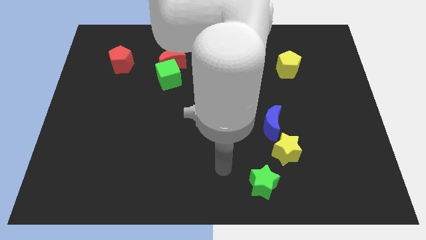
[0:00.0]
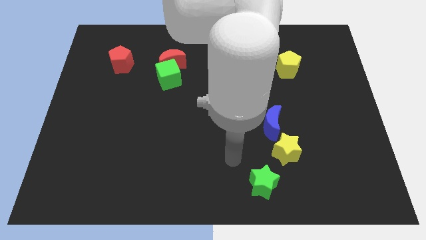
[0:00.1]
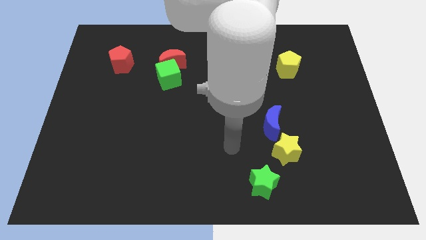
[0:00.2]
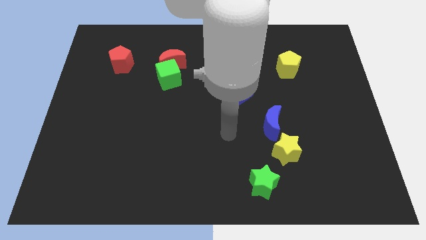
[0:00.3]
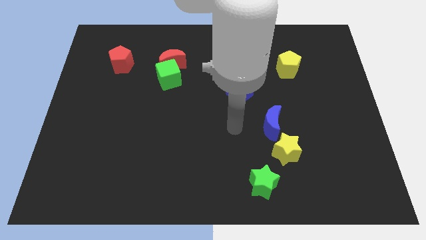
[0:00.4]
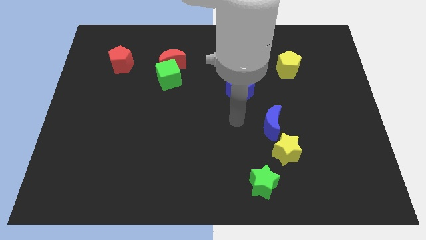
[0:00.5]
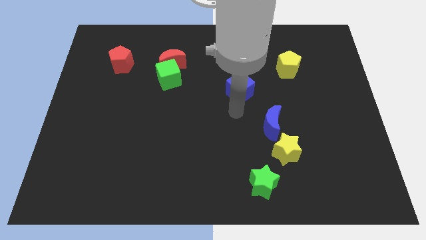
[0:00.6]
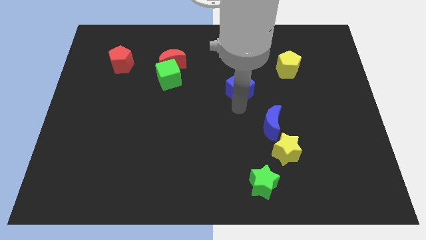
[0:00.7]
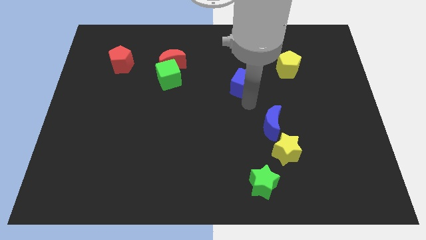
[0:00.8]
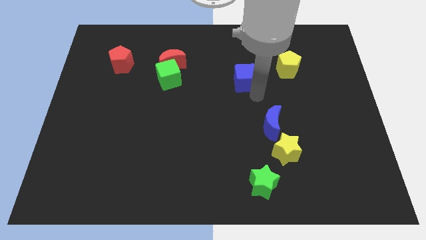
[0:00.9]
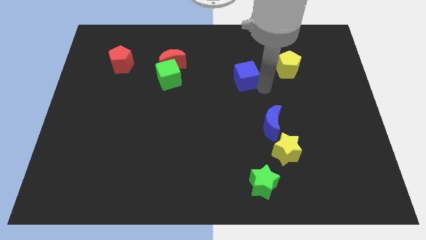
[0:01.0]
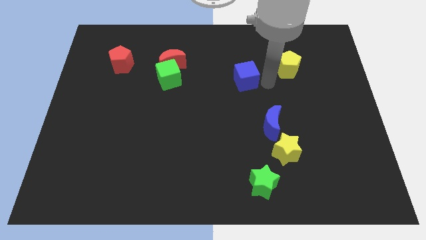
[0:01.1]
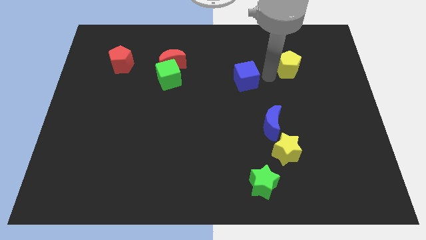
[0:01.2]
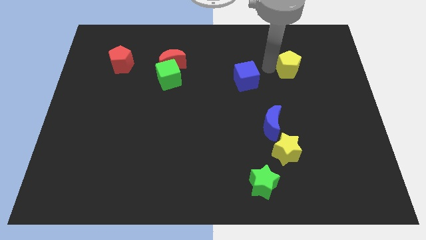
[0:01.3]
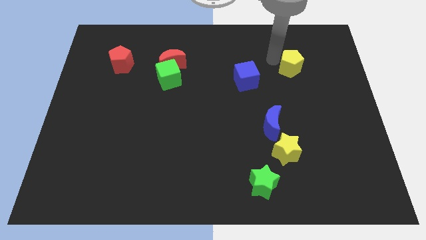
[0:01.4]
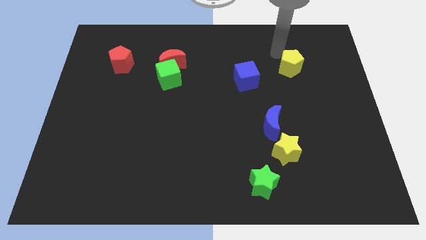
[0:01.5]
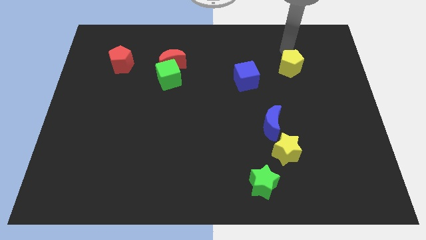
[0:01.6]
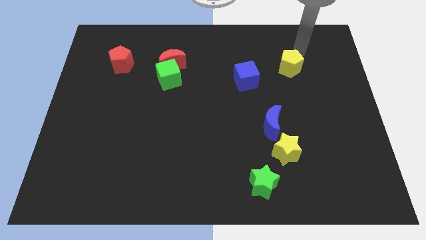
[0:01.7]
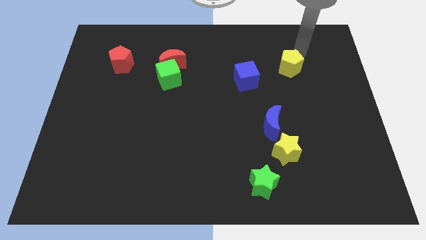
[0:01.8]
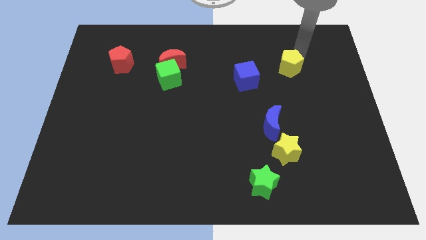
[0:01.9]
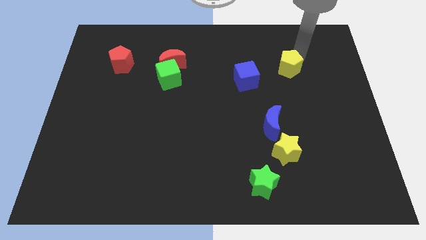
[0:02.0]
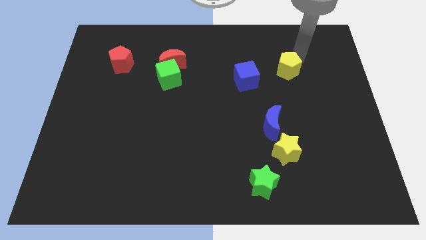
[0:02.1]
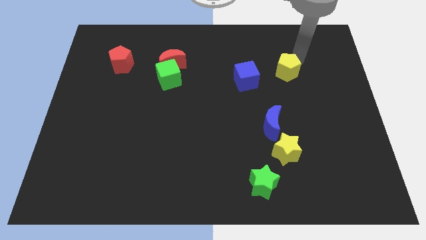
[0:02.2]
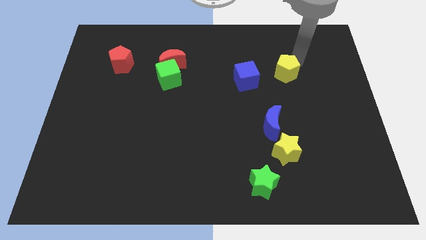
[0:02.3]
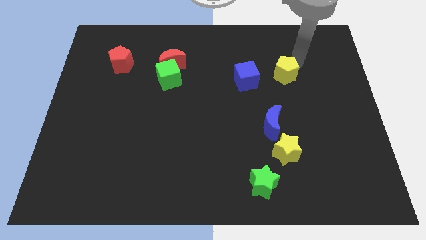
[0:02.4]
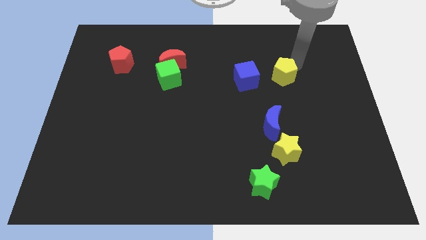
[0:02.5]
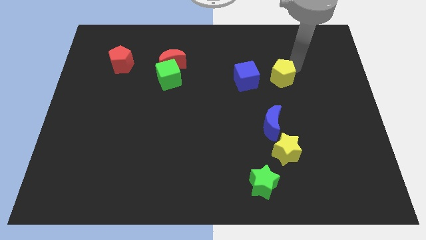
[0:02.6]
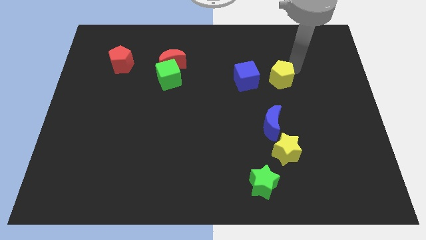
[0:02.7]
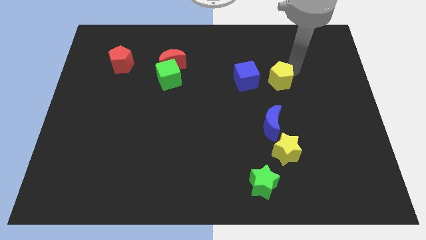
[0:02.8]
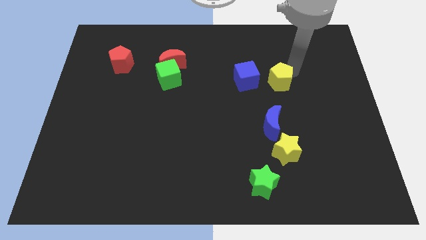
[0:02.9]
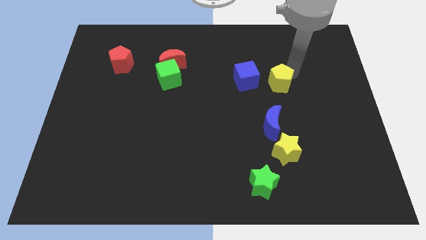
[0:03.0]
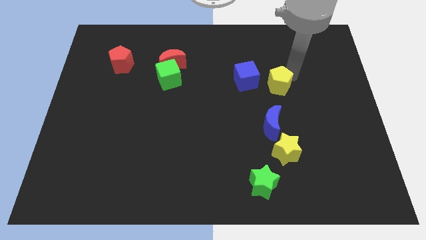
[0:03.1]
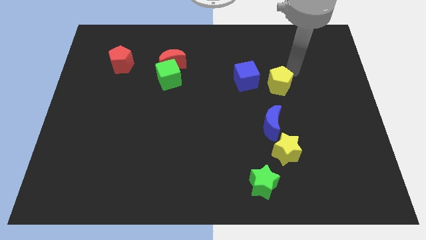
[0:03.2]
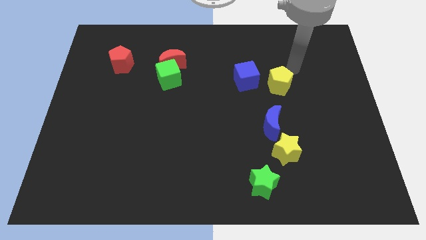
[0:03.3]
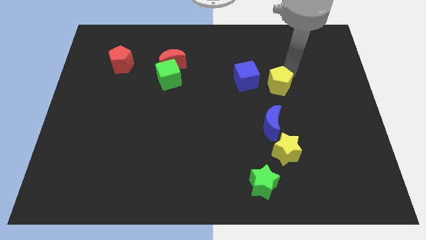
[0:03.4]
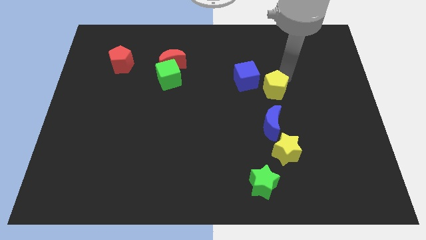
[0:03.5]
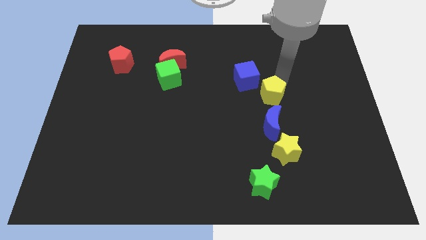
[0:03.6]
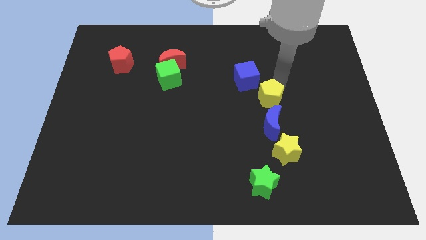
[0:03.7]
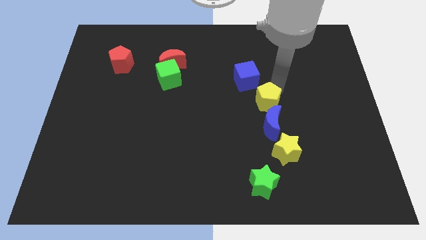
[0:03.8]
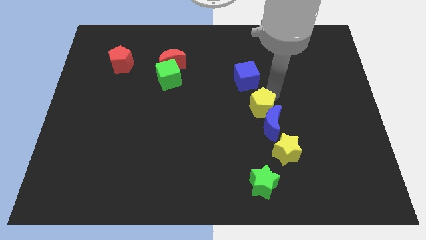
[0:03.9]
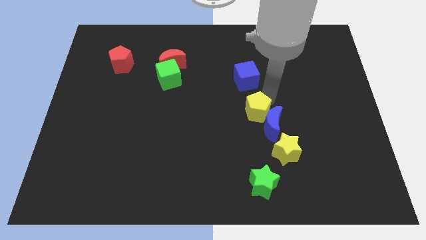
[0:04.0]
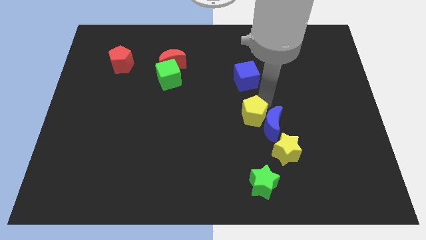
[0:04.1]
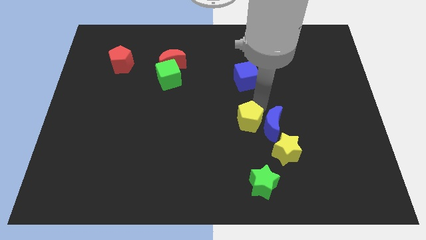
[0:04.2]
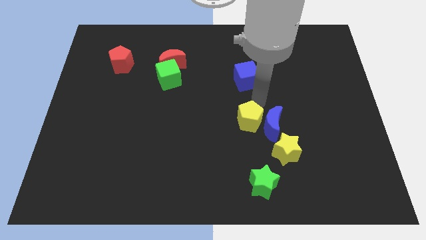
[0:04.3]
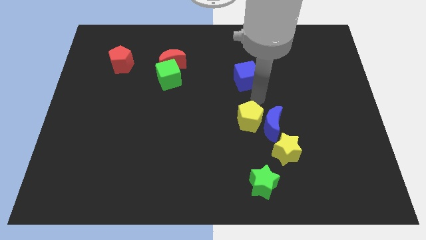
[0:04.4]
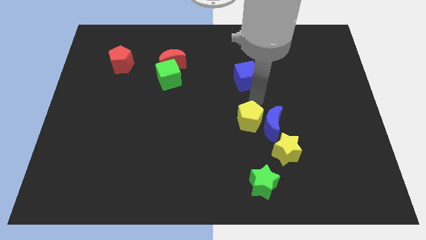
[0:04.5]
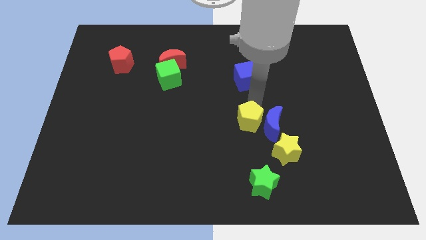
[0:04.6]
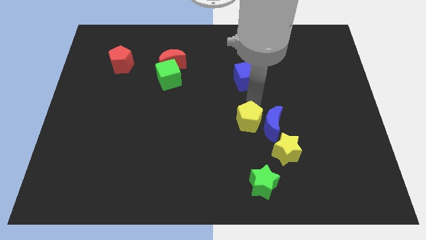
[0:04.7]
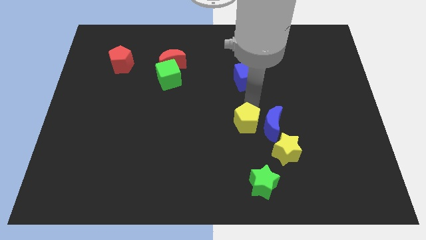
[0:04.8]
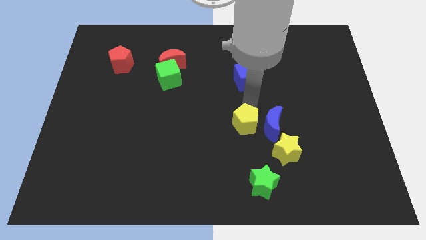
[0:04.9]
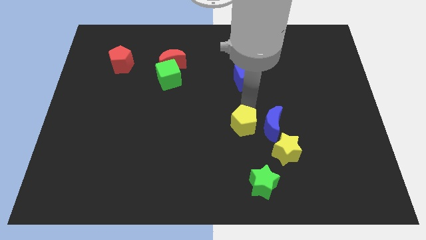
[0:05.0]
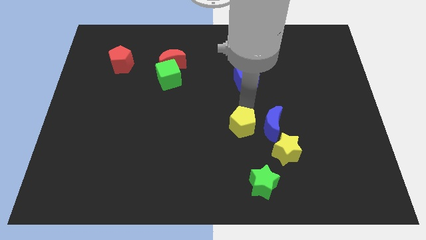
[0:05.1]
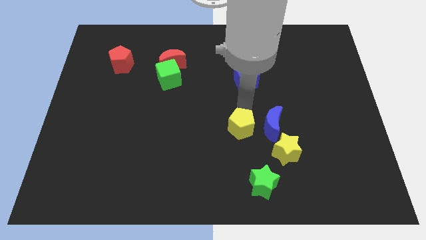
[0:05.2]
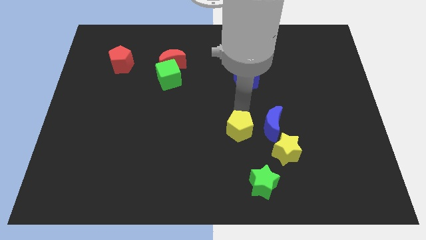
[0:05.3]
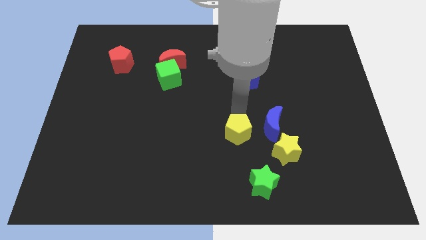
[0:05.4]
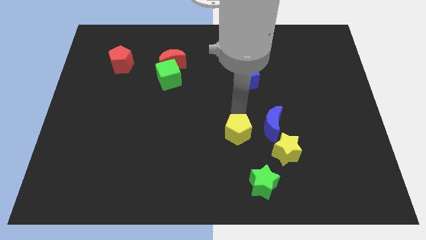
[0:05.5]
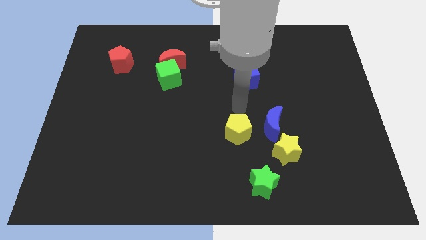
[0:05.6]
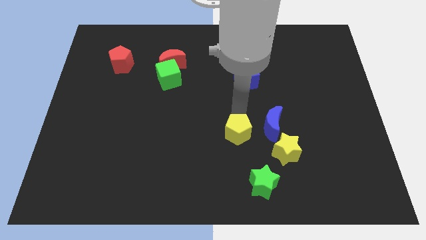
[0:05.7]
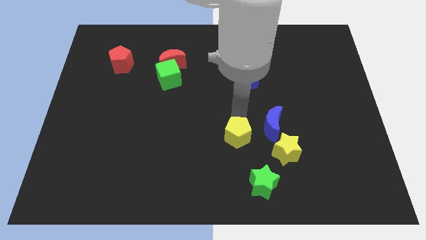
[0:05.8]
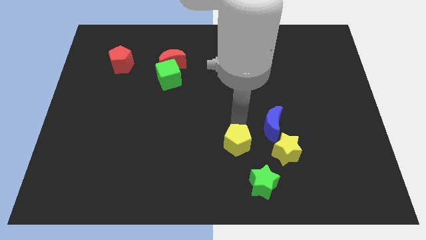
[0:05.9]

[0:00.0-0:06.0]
put the yellow pentagon diagonally up and to the left of the green star

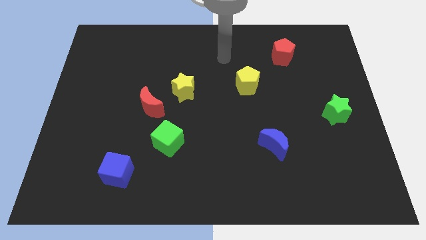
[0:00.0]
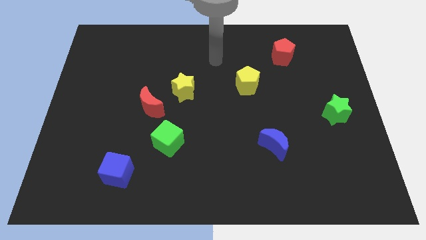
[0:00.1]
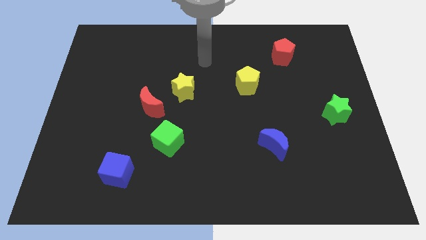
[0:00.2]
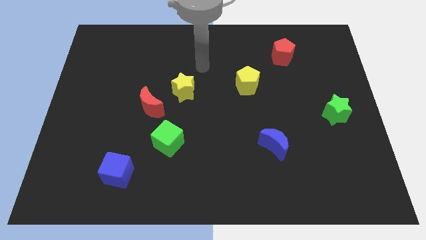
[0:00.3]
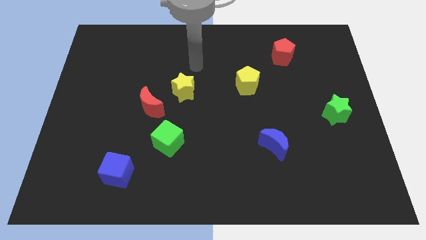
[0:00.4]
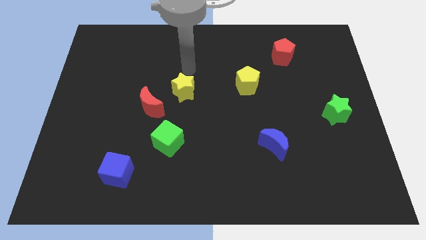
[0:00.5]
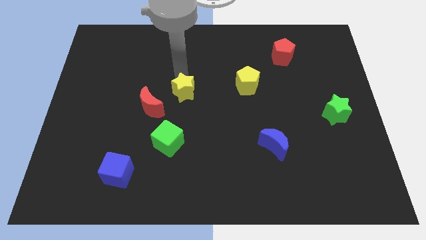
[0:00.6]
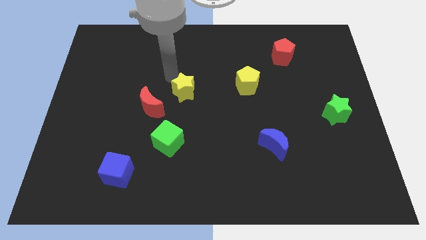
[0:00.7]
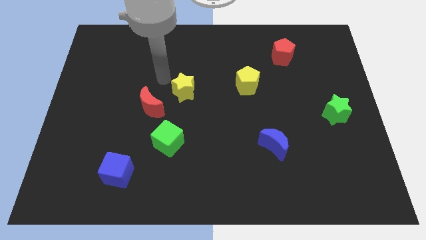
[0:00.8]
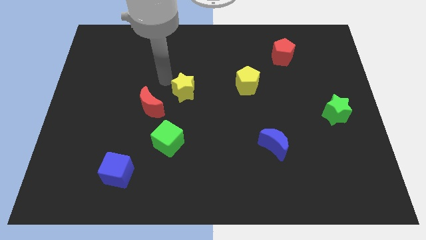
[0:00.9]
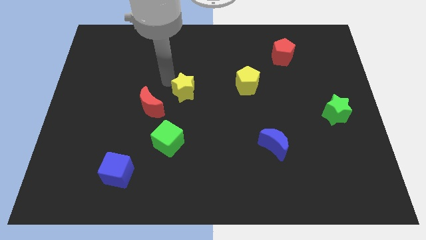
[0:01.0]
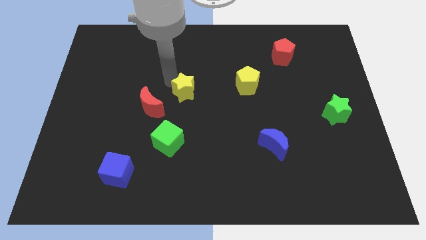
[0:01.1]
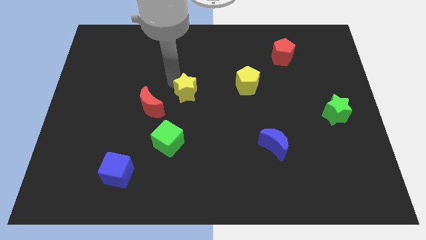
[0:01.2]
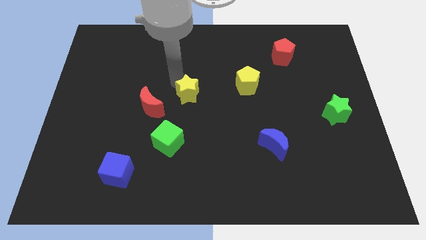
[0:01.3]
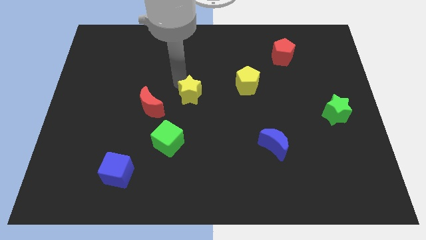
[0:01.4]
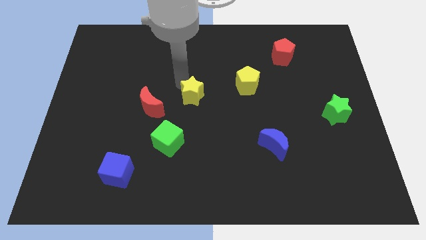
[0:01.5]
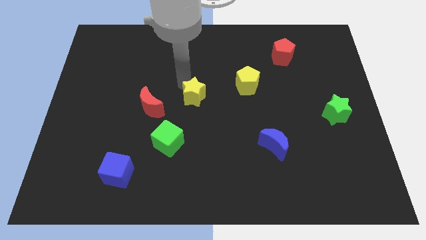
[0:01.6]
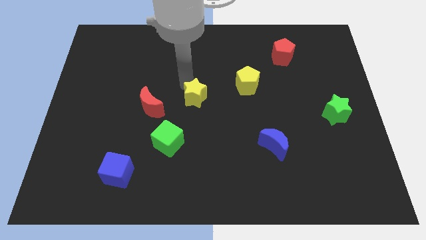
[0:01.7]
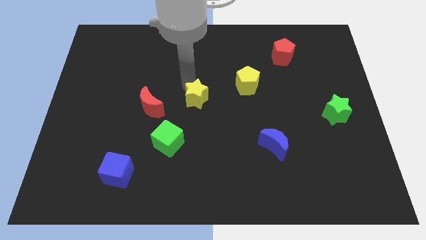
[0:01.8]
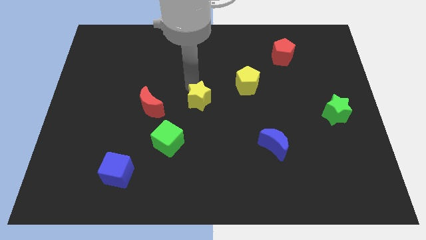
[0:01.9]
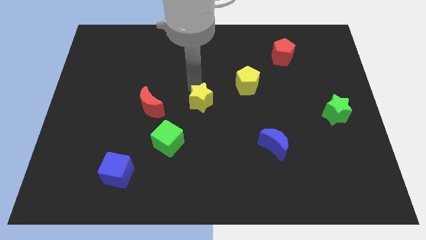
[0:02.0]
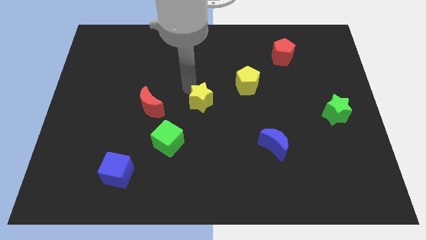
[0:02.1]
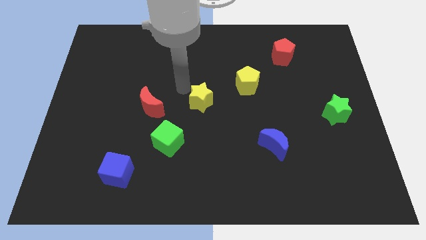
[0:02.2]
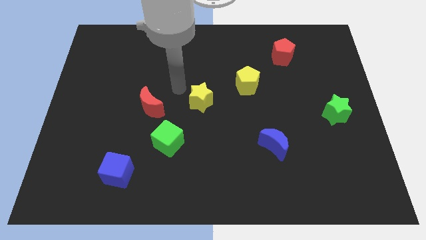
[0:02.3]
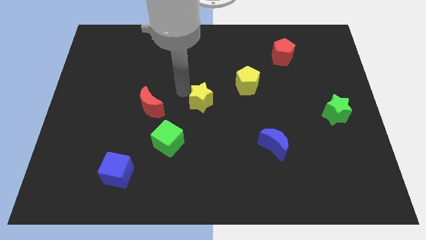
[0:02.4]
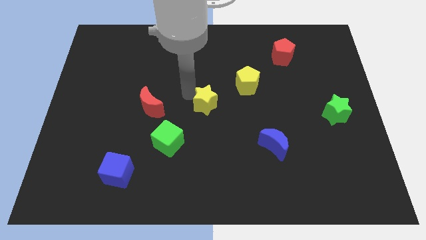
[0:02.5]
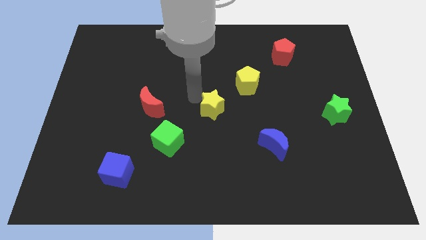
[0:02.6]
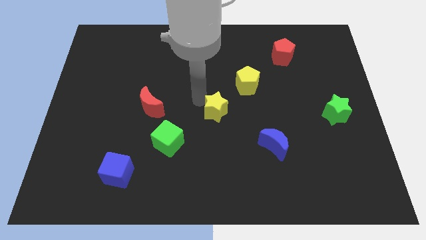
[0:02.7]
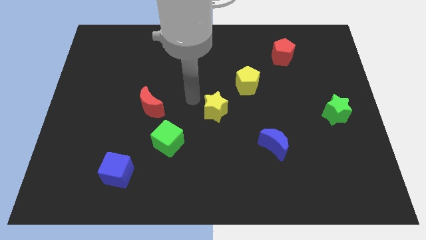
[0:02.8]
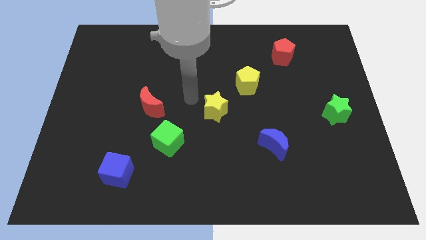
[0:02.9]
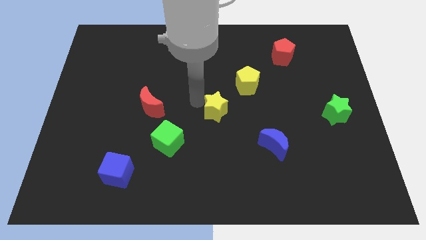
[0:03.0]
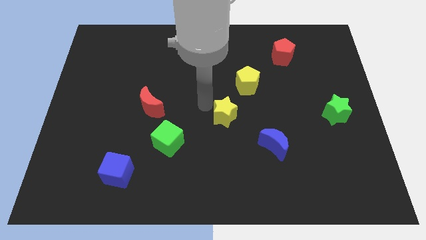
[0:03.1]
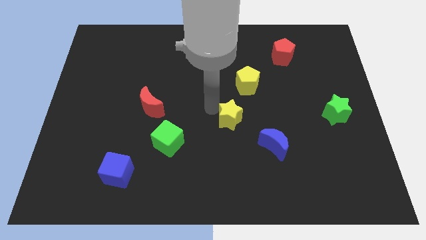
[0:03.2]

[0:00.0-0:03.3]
put the yellow star diagonally up and to the left of the blue moon
